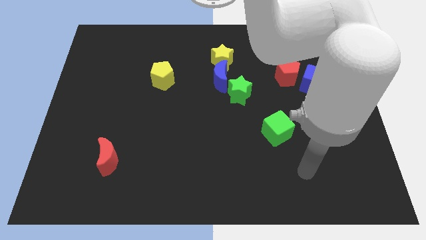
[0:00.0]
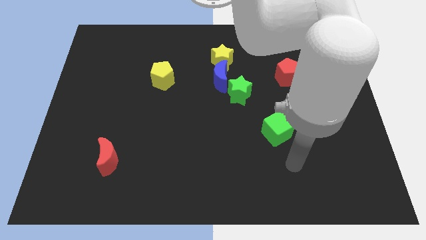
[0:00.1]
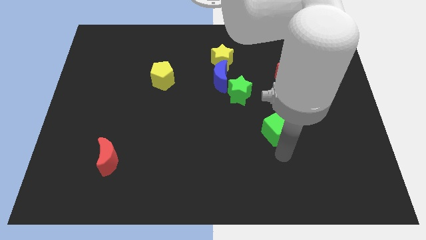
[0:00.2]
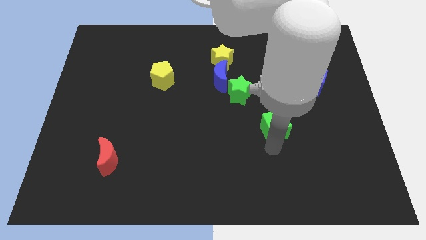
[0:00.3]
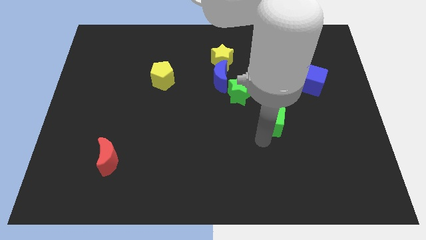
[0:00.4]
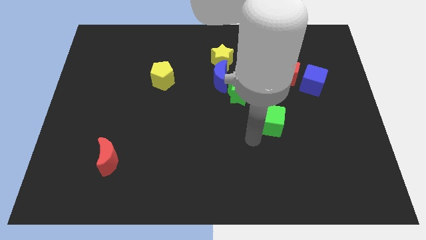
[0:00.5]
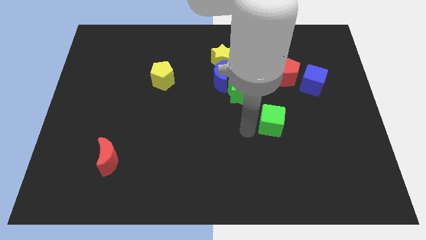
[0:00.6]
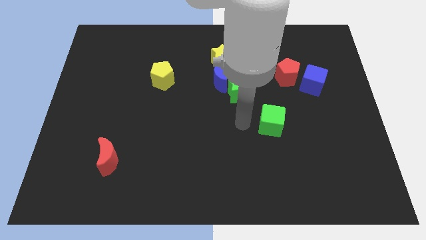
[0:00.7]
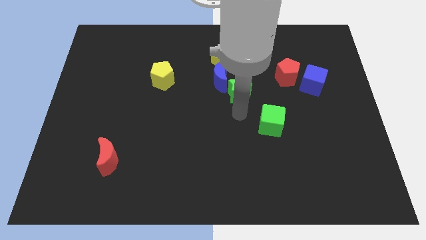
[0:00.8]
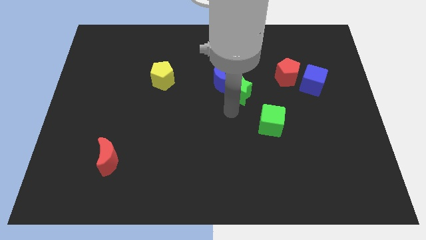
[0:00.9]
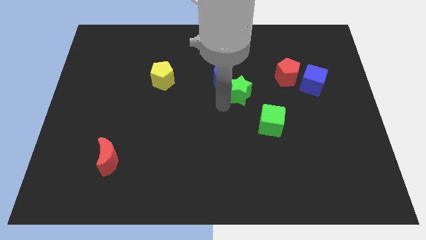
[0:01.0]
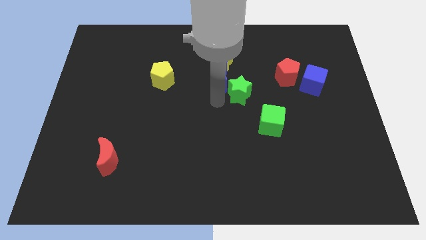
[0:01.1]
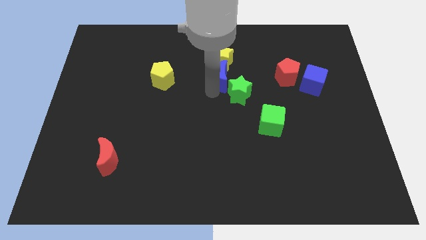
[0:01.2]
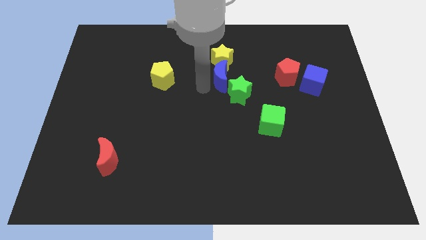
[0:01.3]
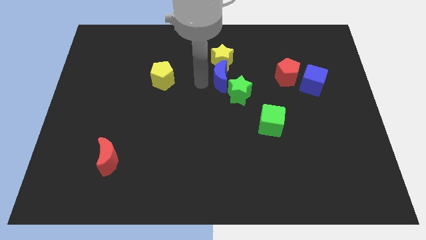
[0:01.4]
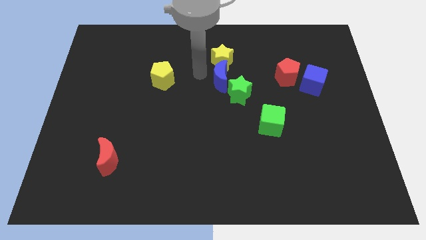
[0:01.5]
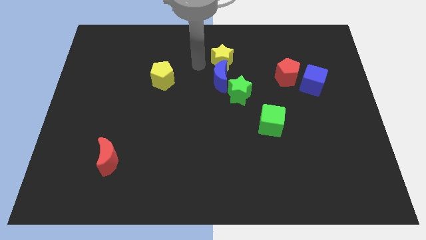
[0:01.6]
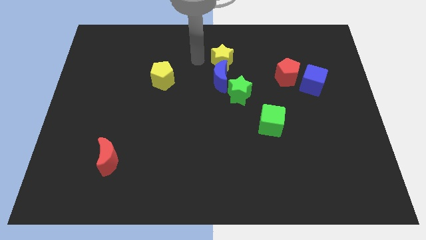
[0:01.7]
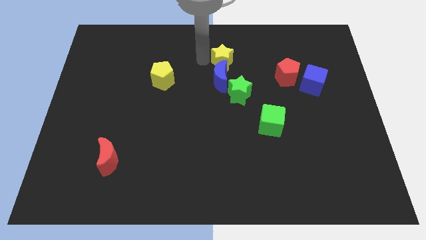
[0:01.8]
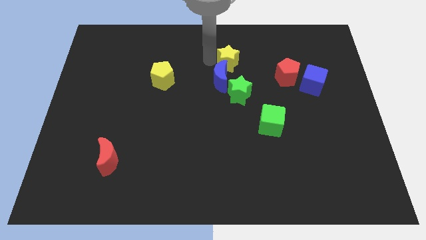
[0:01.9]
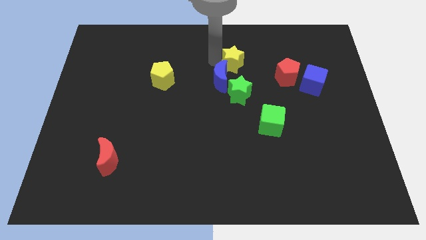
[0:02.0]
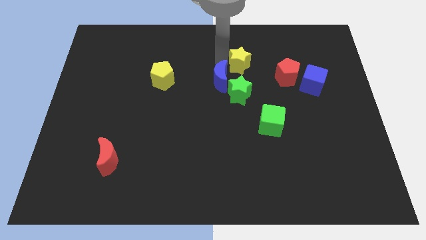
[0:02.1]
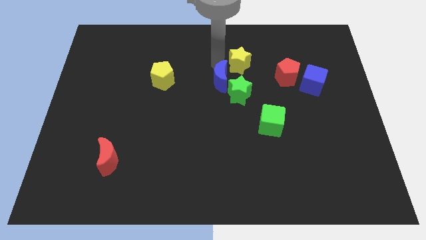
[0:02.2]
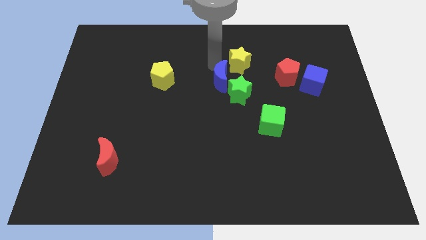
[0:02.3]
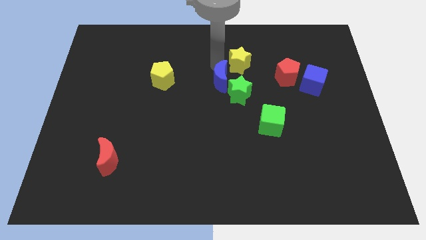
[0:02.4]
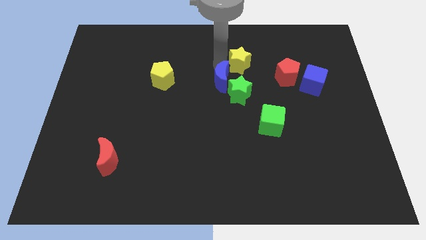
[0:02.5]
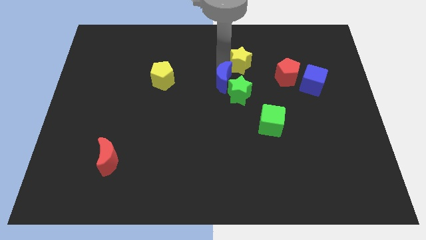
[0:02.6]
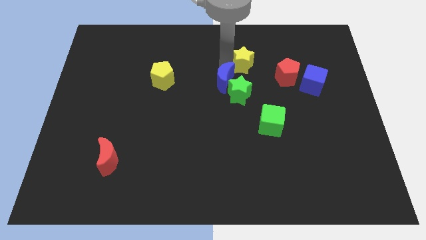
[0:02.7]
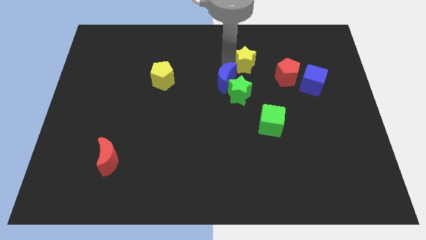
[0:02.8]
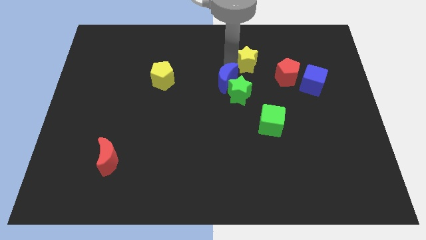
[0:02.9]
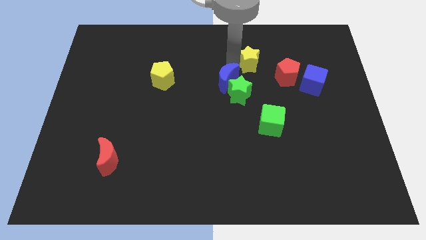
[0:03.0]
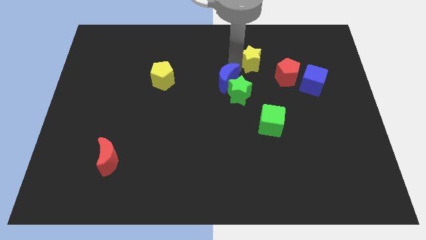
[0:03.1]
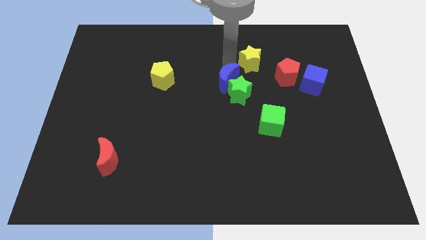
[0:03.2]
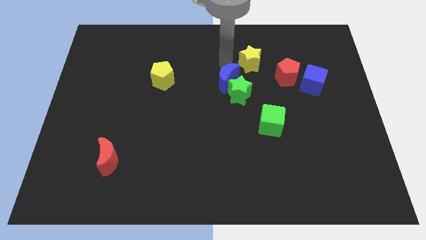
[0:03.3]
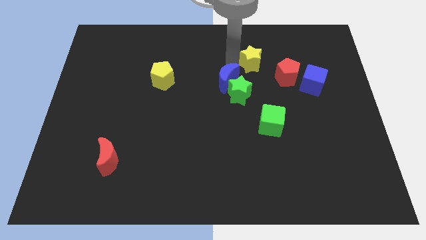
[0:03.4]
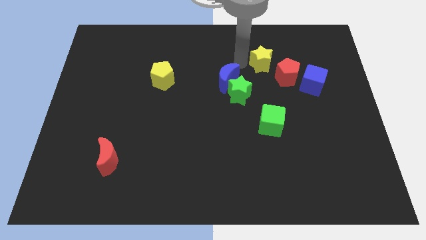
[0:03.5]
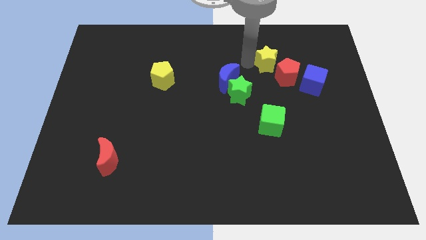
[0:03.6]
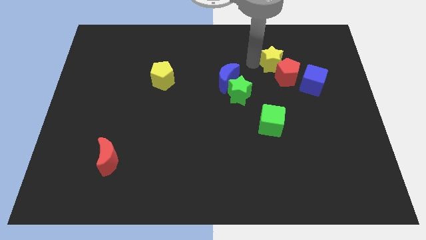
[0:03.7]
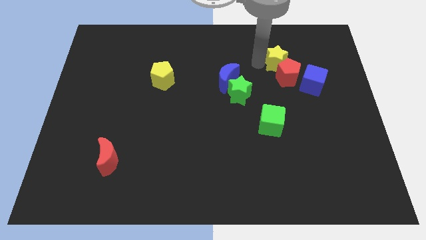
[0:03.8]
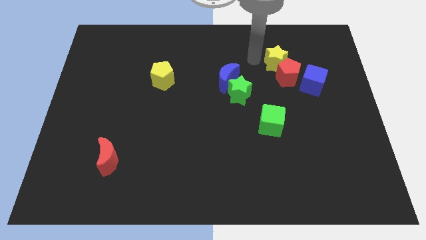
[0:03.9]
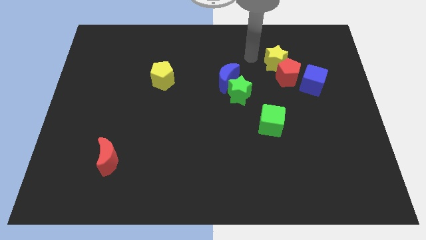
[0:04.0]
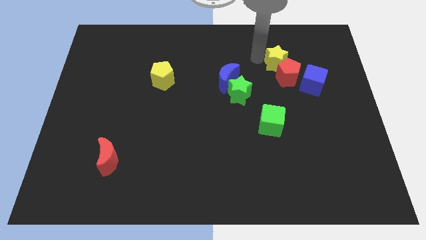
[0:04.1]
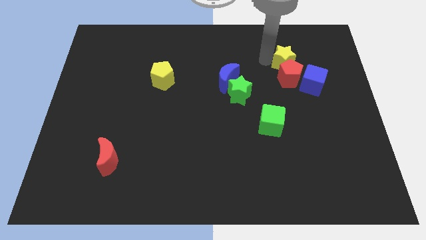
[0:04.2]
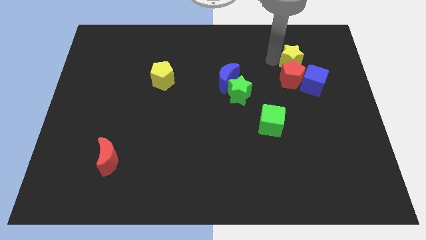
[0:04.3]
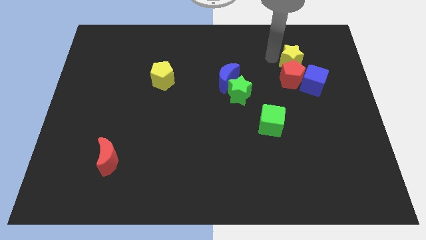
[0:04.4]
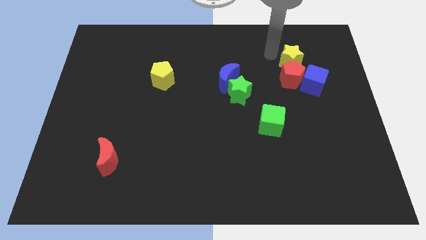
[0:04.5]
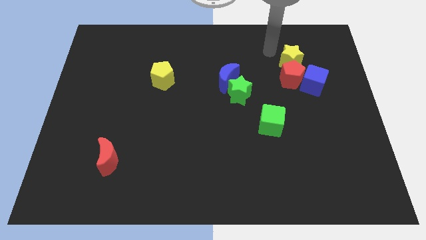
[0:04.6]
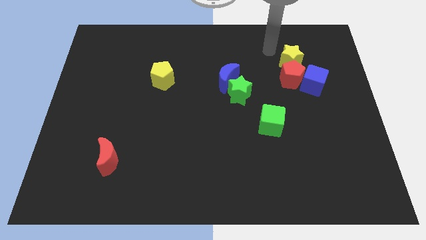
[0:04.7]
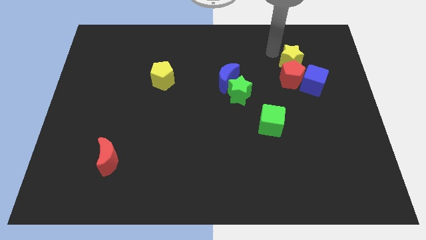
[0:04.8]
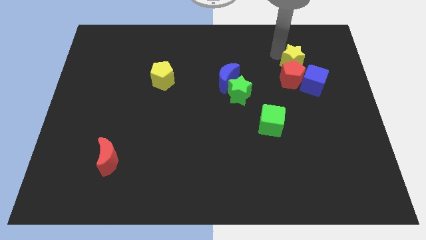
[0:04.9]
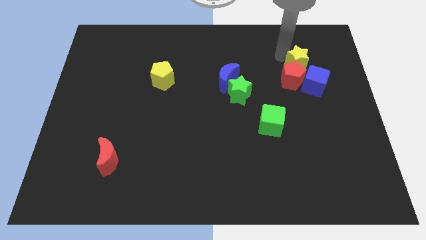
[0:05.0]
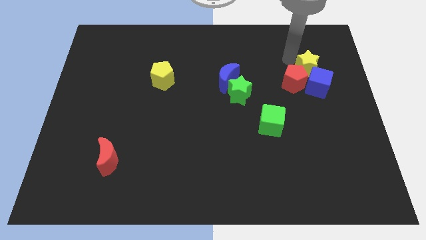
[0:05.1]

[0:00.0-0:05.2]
slide the yellow star to the right of the red pentagon

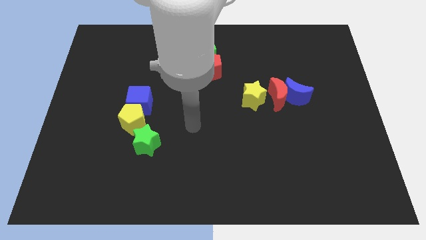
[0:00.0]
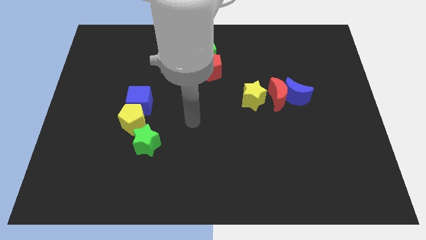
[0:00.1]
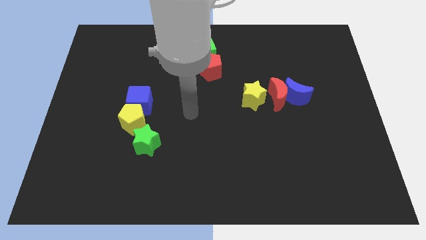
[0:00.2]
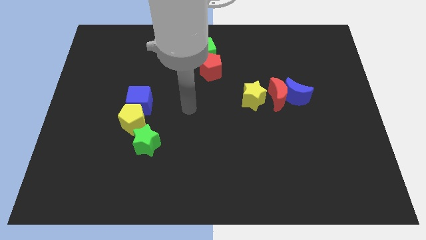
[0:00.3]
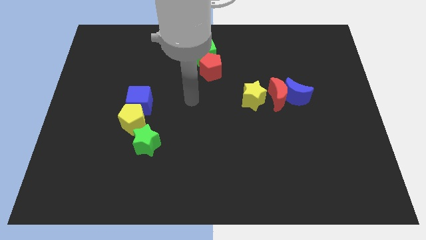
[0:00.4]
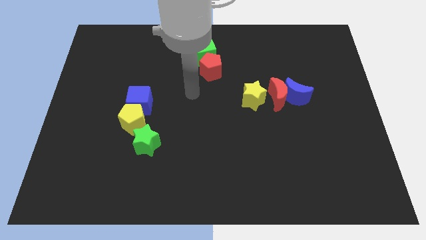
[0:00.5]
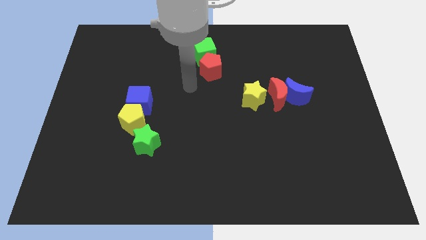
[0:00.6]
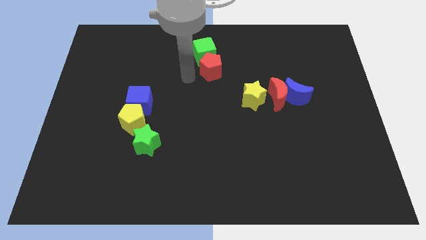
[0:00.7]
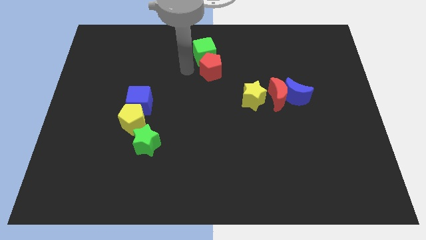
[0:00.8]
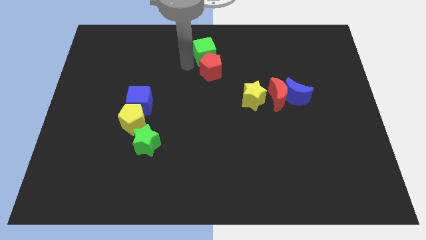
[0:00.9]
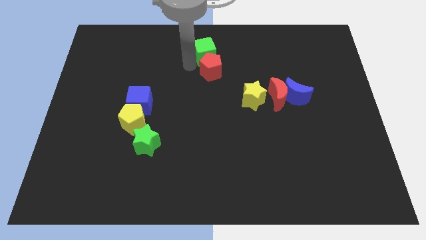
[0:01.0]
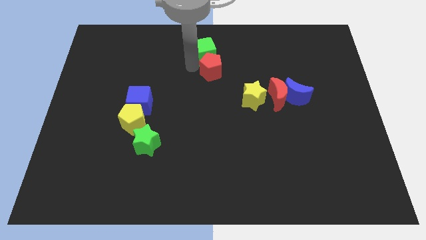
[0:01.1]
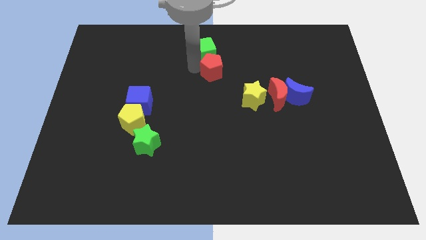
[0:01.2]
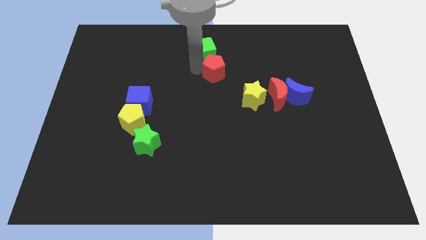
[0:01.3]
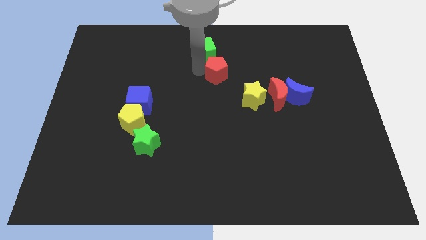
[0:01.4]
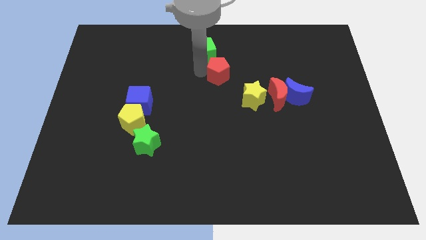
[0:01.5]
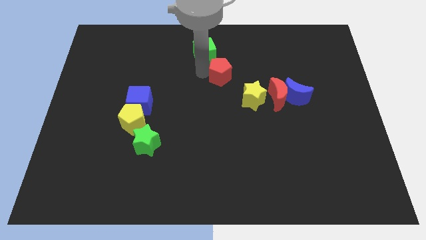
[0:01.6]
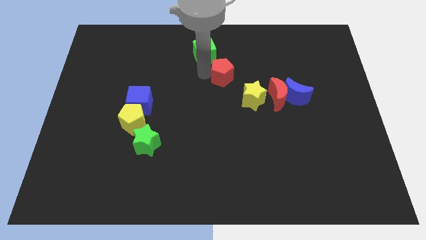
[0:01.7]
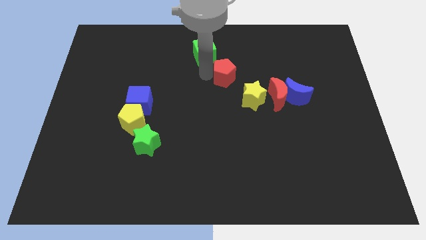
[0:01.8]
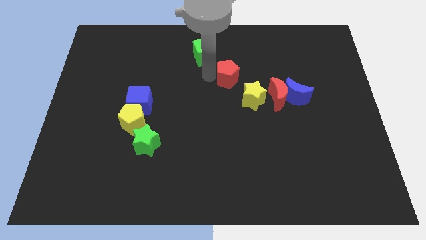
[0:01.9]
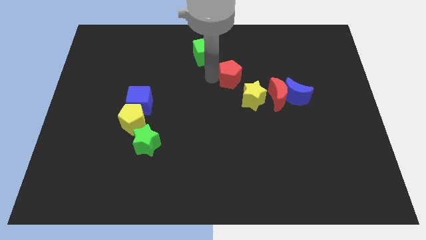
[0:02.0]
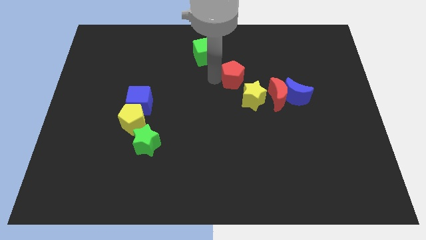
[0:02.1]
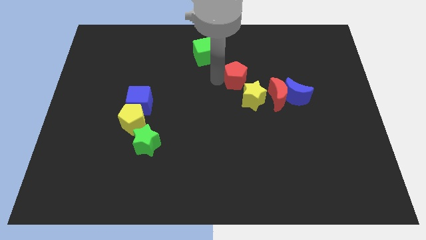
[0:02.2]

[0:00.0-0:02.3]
slide the red pentagon to the top left side of the red moon
